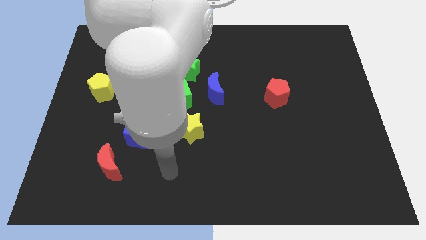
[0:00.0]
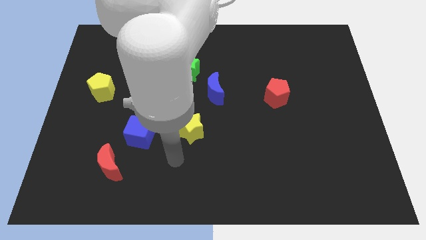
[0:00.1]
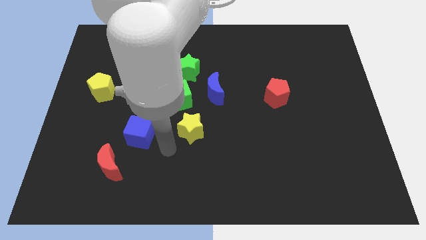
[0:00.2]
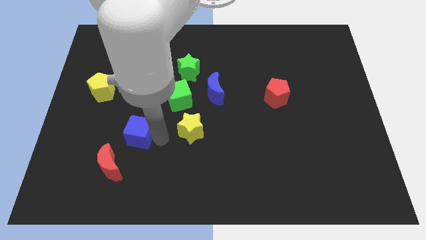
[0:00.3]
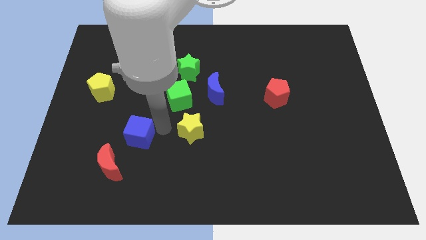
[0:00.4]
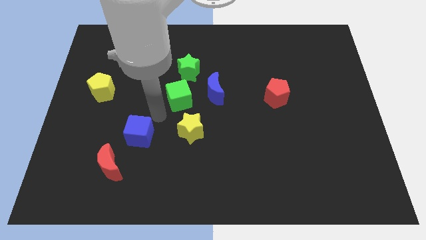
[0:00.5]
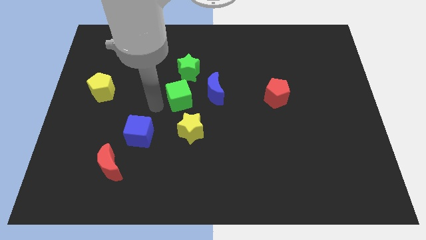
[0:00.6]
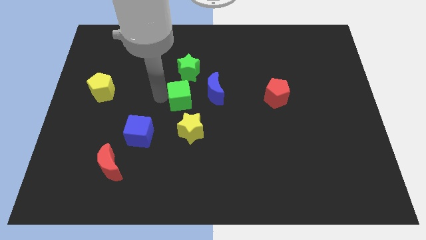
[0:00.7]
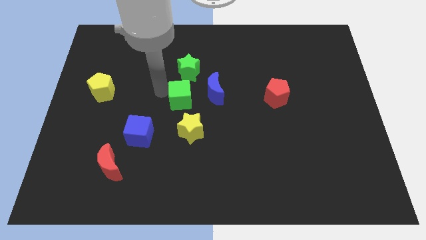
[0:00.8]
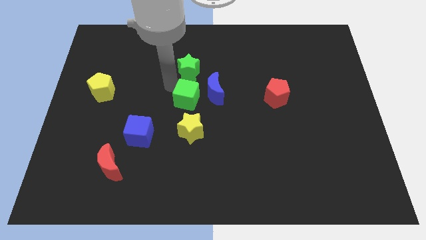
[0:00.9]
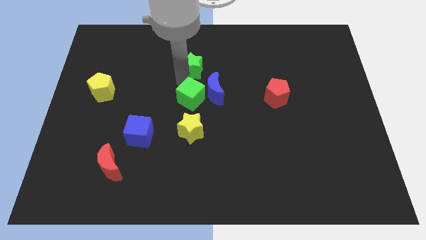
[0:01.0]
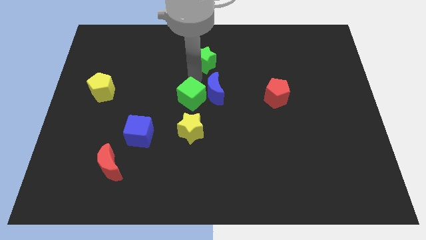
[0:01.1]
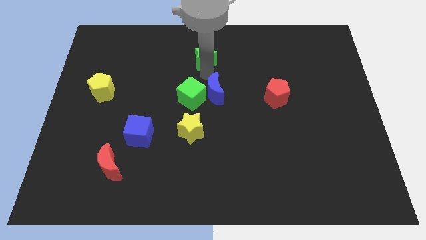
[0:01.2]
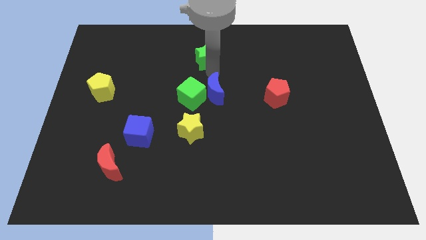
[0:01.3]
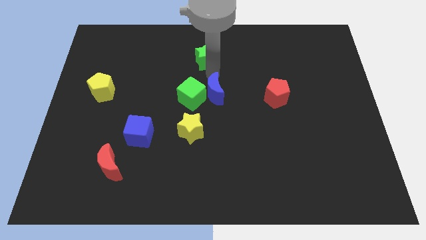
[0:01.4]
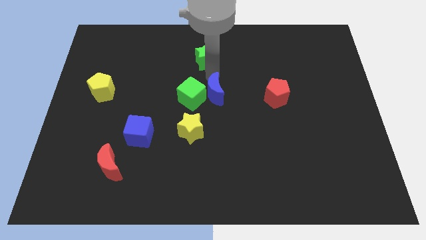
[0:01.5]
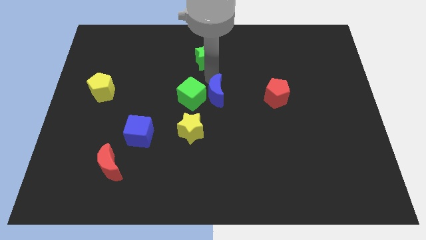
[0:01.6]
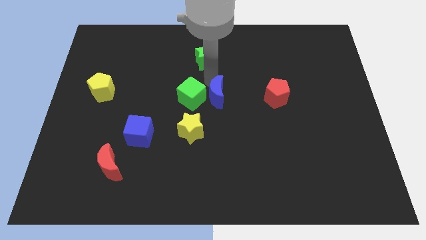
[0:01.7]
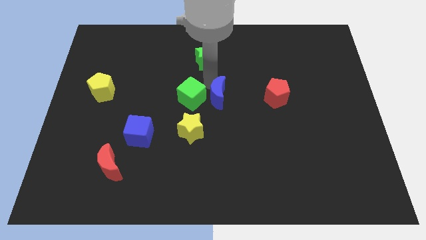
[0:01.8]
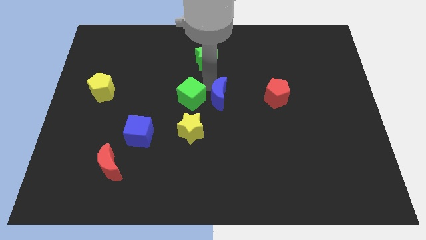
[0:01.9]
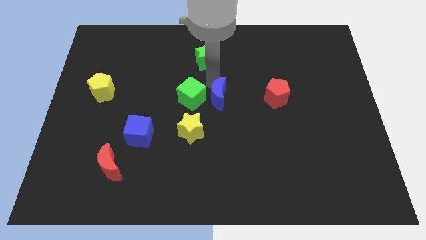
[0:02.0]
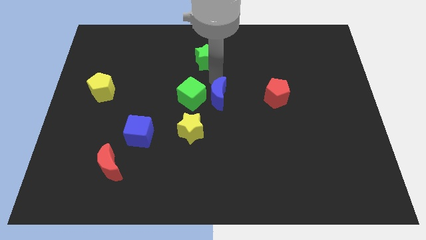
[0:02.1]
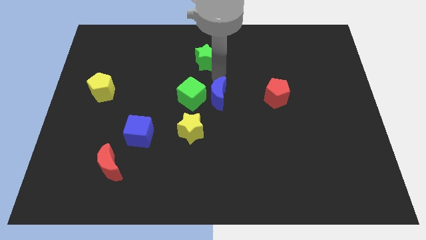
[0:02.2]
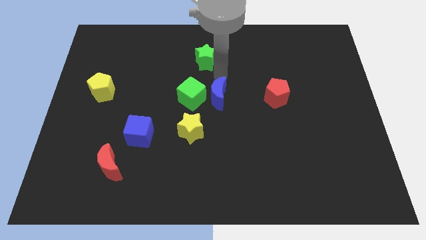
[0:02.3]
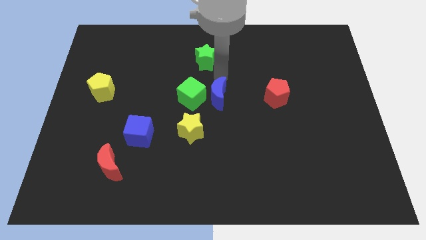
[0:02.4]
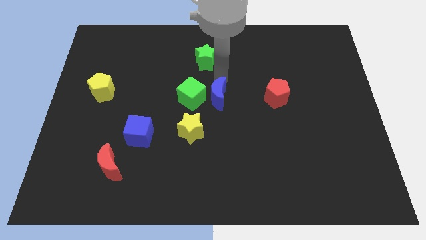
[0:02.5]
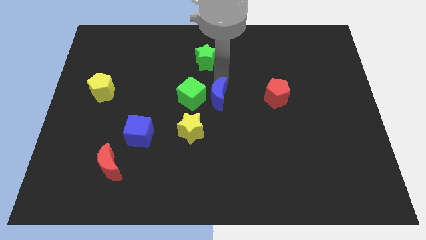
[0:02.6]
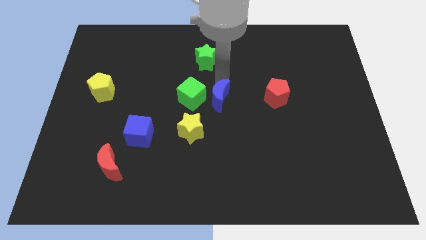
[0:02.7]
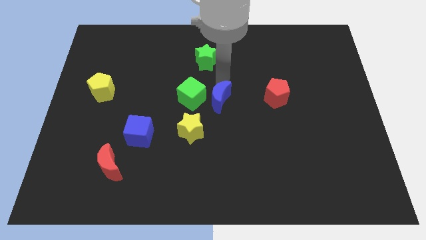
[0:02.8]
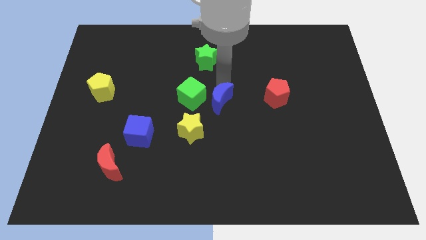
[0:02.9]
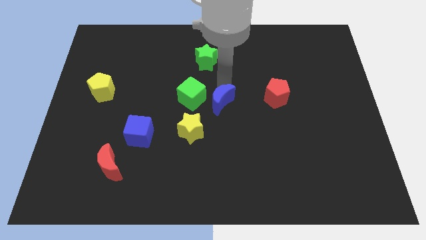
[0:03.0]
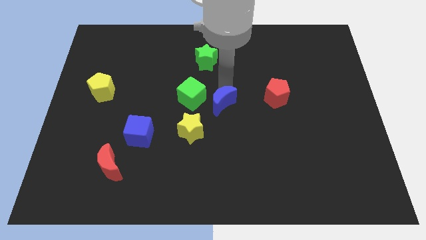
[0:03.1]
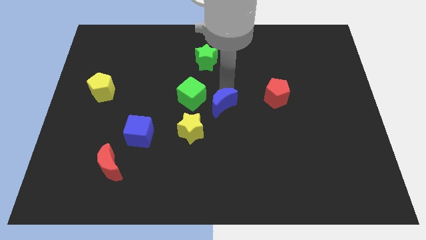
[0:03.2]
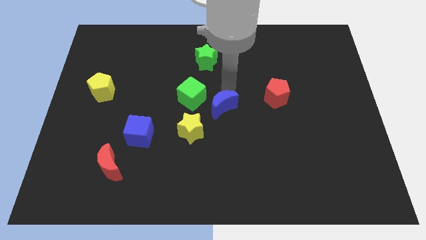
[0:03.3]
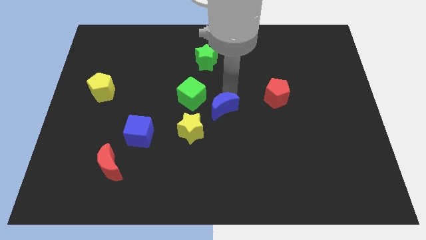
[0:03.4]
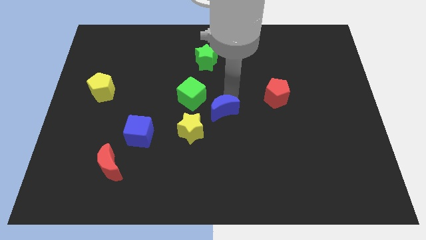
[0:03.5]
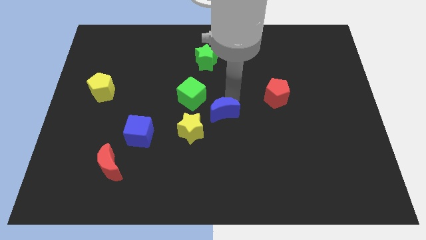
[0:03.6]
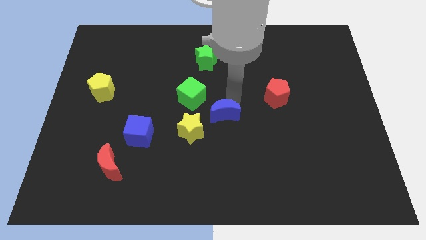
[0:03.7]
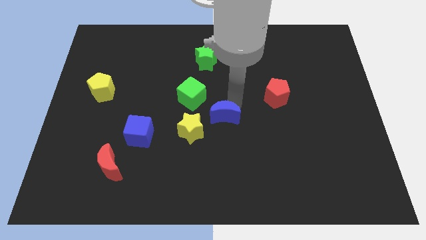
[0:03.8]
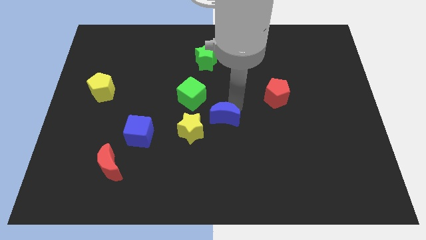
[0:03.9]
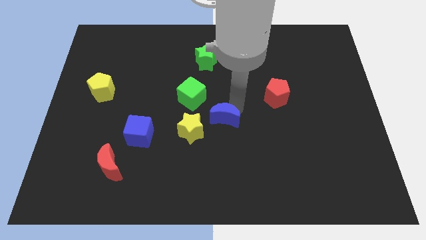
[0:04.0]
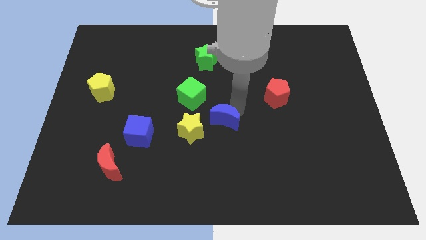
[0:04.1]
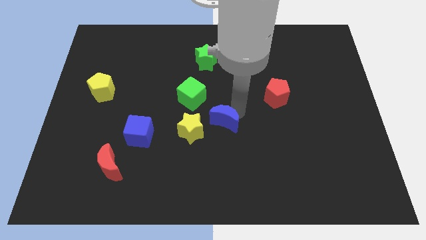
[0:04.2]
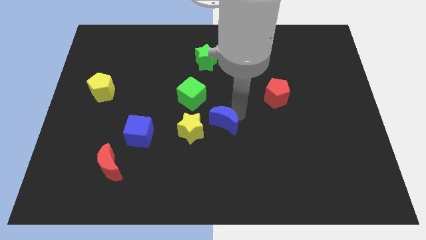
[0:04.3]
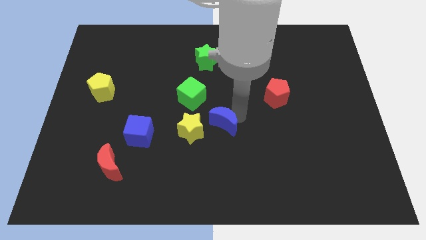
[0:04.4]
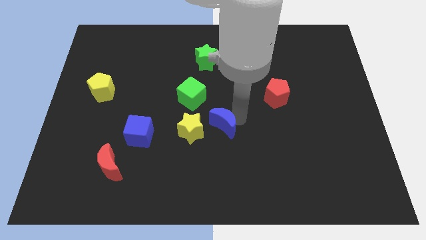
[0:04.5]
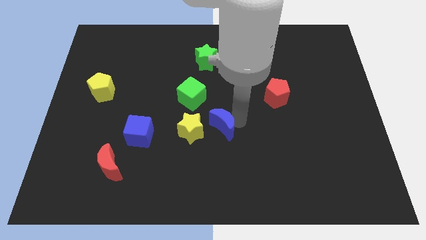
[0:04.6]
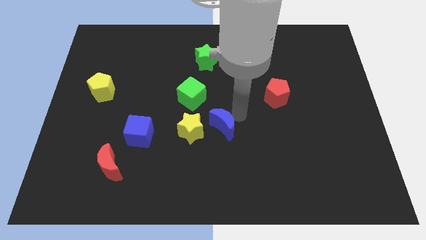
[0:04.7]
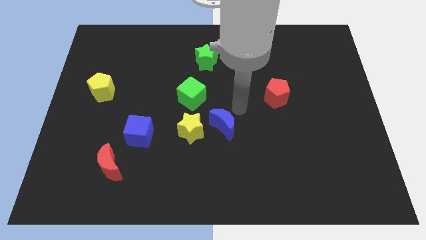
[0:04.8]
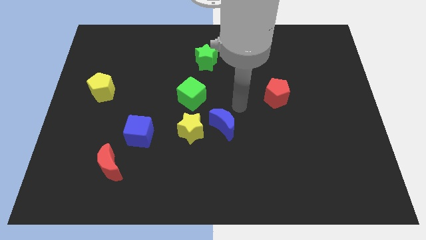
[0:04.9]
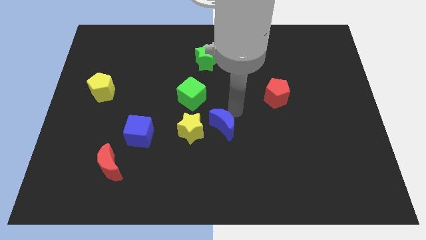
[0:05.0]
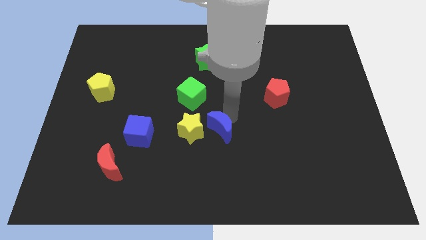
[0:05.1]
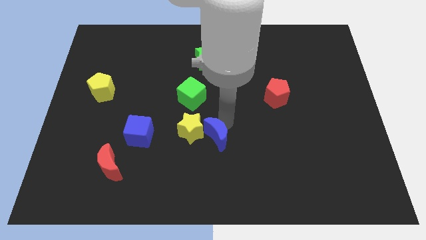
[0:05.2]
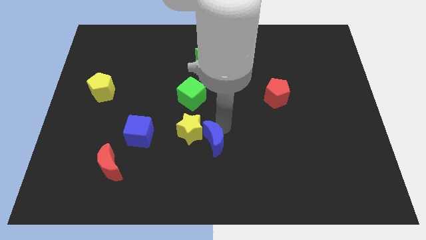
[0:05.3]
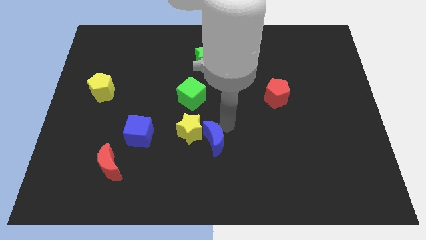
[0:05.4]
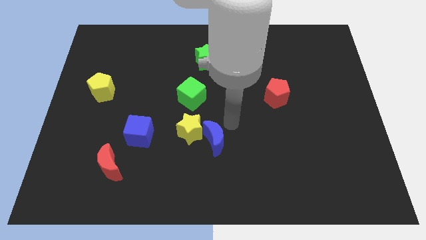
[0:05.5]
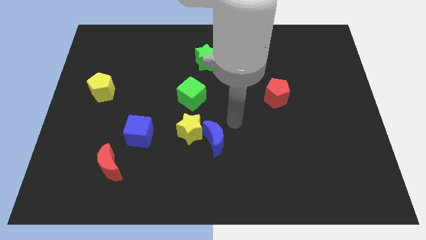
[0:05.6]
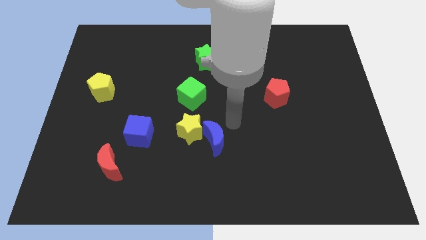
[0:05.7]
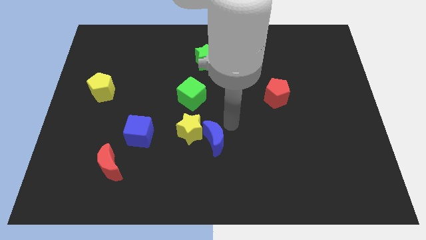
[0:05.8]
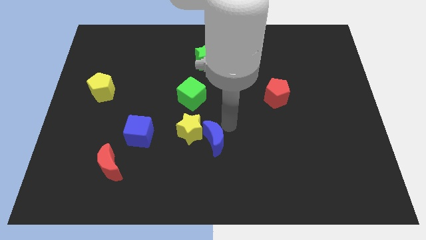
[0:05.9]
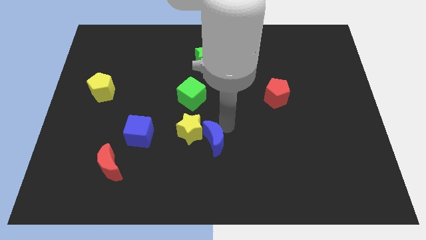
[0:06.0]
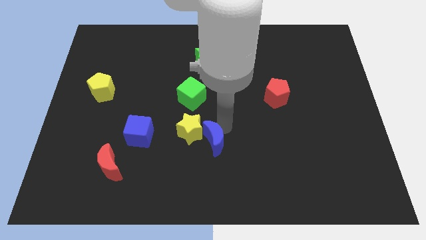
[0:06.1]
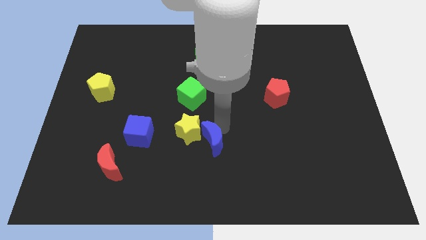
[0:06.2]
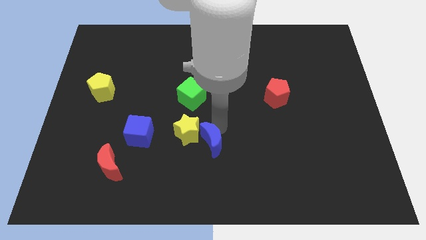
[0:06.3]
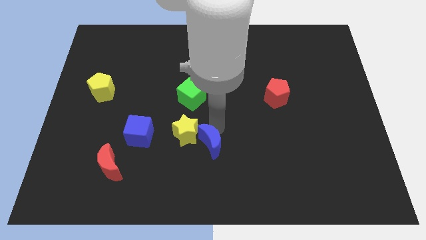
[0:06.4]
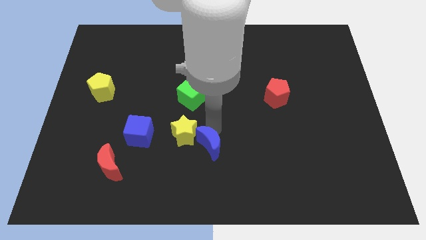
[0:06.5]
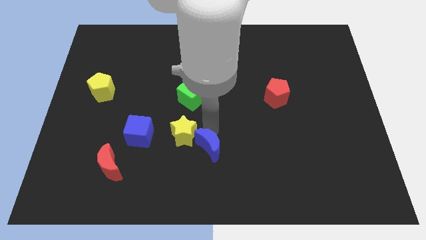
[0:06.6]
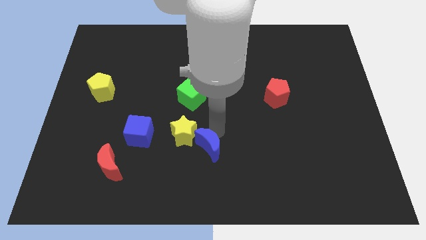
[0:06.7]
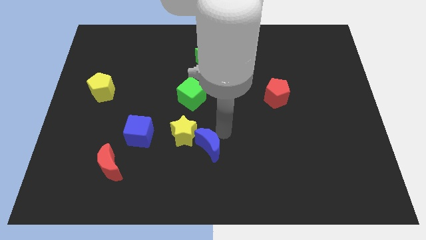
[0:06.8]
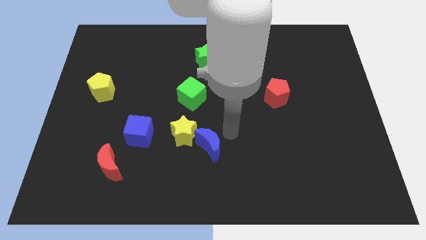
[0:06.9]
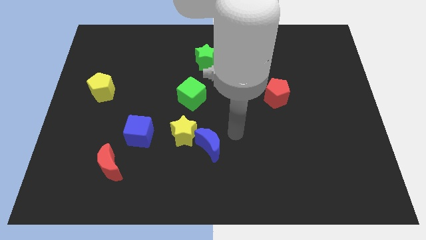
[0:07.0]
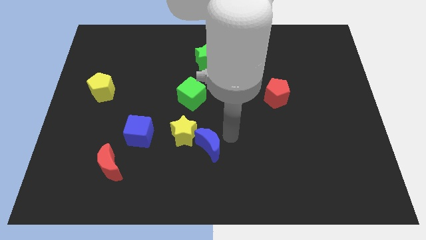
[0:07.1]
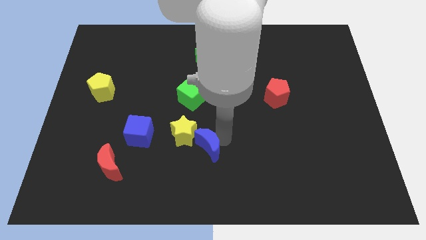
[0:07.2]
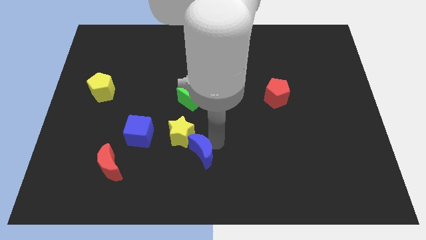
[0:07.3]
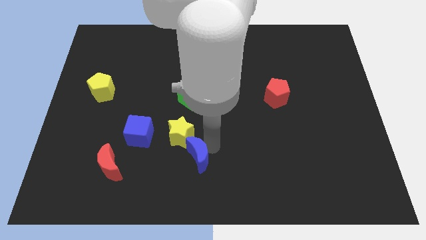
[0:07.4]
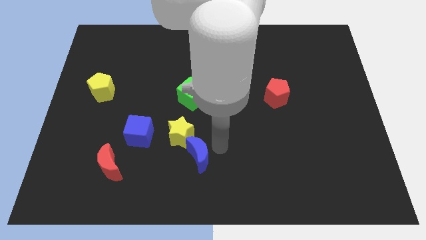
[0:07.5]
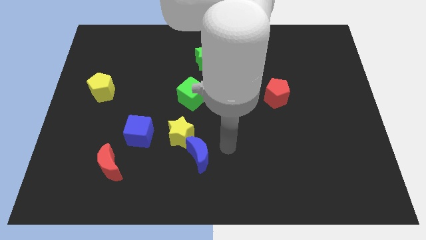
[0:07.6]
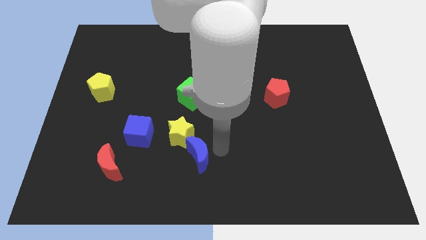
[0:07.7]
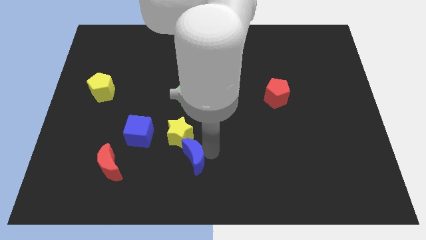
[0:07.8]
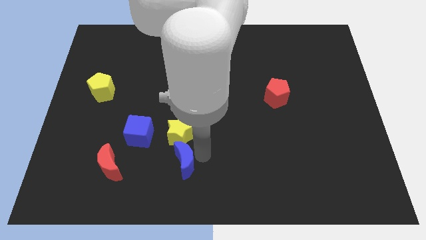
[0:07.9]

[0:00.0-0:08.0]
push the blue moon right of the red moon
